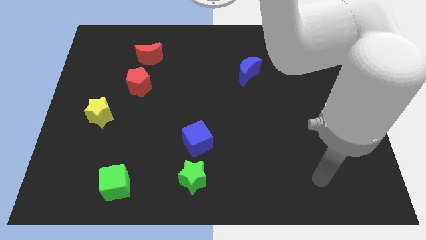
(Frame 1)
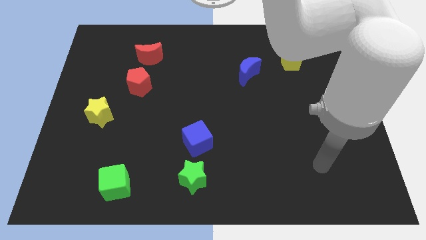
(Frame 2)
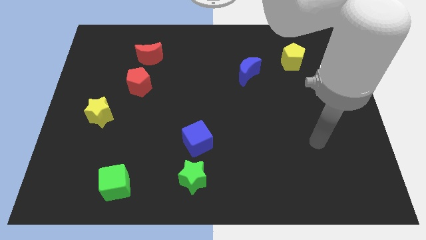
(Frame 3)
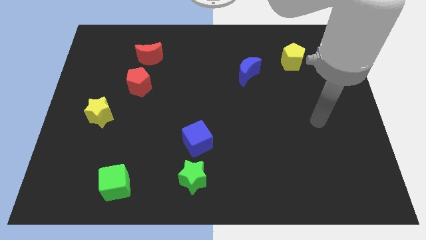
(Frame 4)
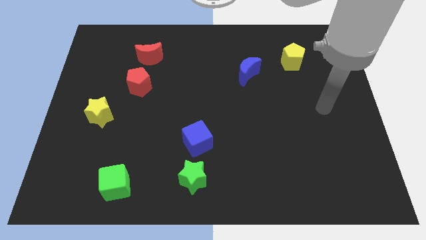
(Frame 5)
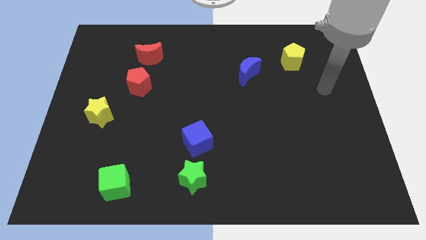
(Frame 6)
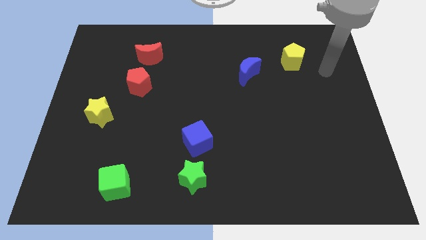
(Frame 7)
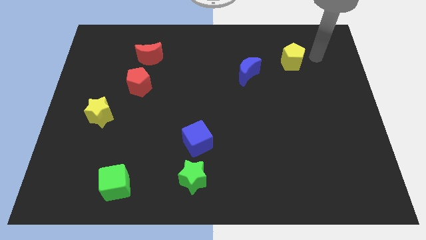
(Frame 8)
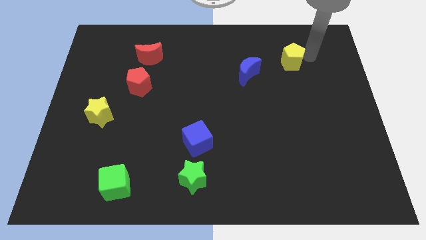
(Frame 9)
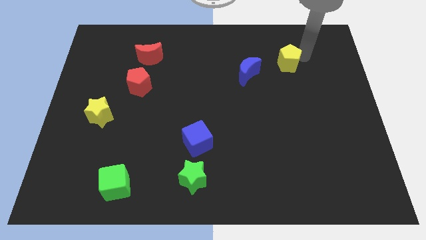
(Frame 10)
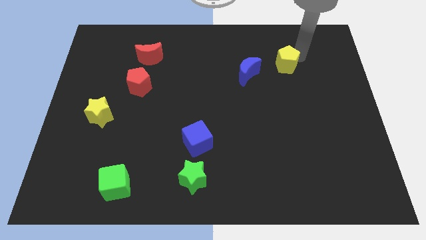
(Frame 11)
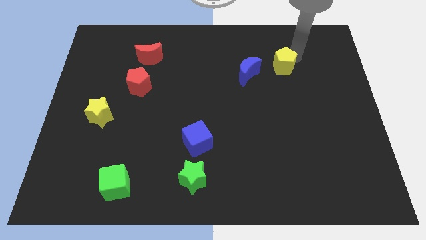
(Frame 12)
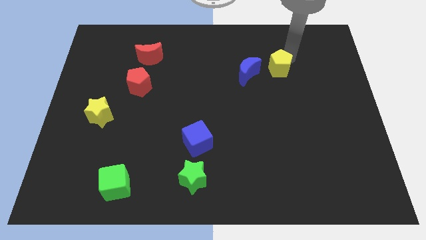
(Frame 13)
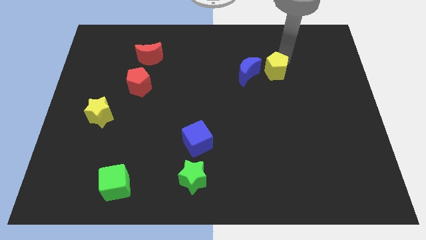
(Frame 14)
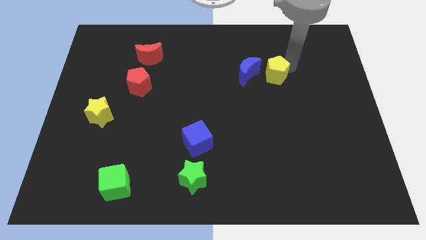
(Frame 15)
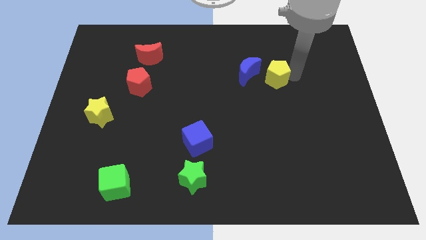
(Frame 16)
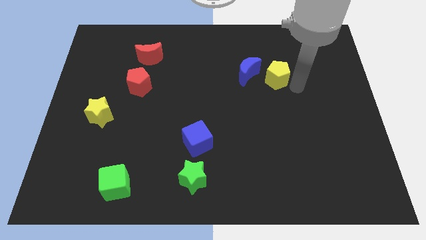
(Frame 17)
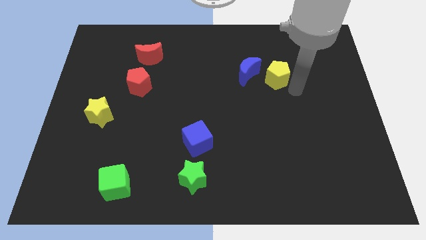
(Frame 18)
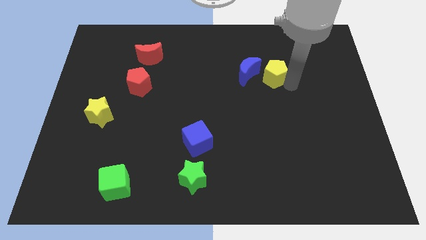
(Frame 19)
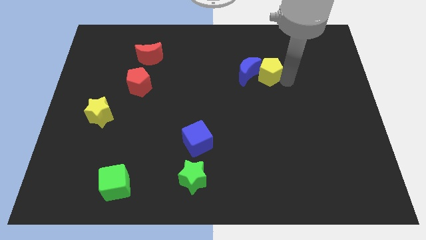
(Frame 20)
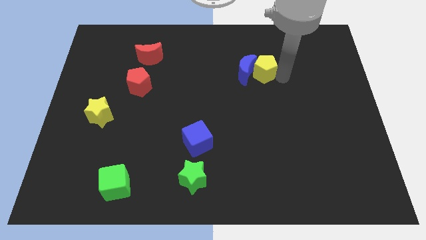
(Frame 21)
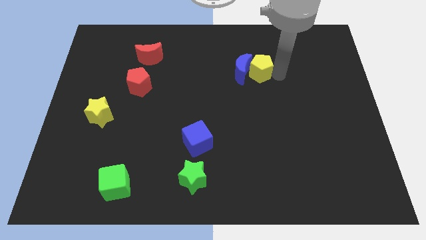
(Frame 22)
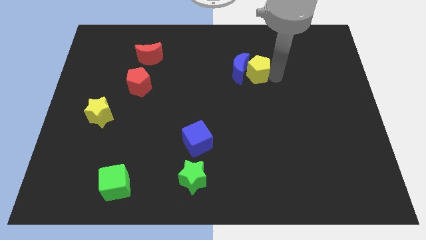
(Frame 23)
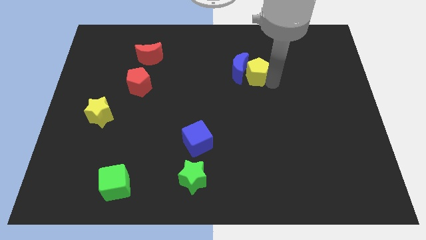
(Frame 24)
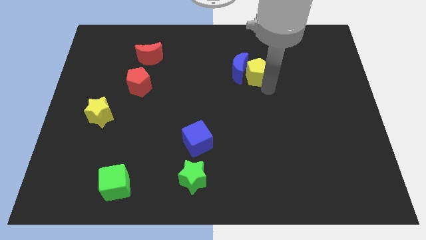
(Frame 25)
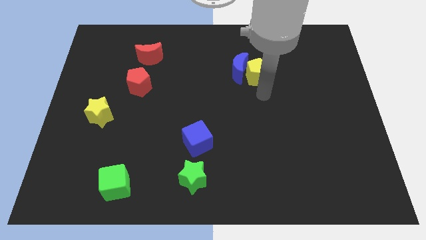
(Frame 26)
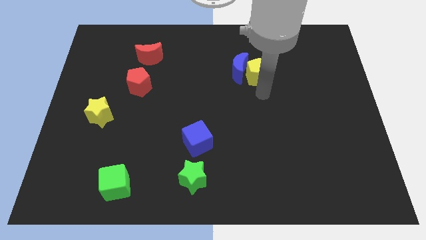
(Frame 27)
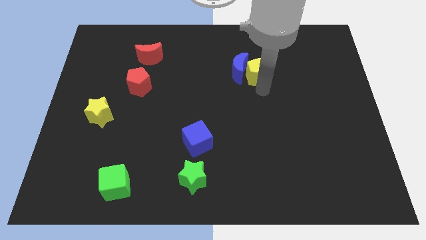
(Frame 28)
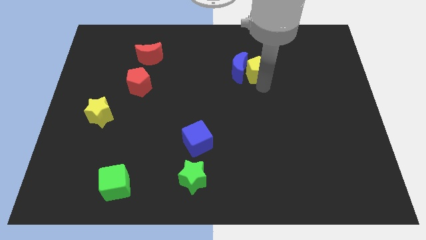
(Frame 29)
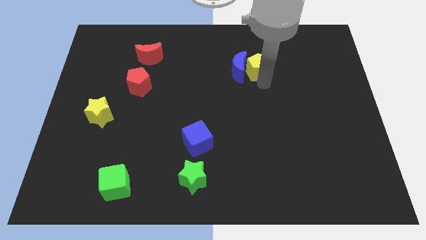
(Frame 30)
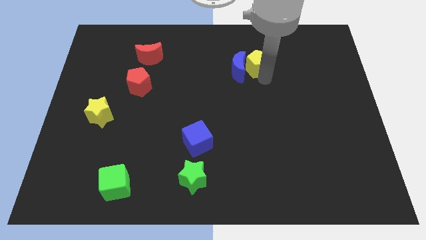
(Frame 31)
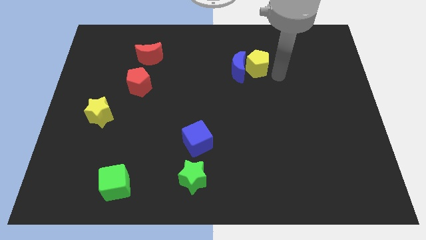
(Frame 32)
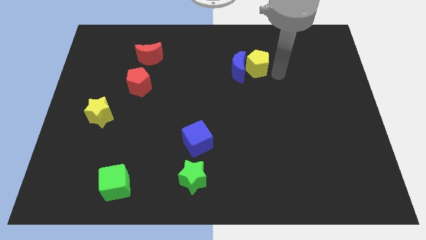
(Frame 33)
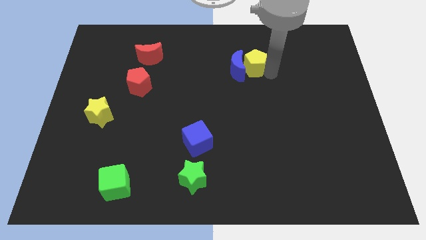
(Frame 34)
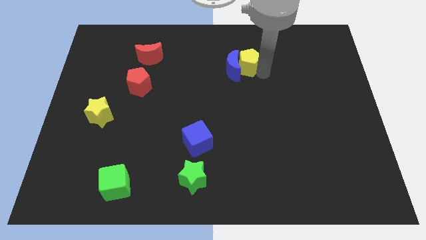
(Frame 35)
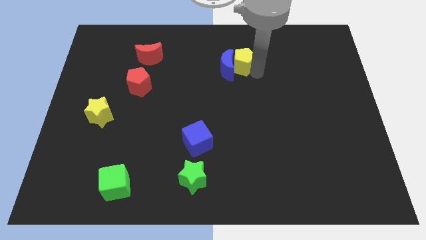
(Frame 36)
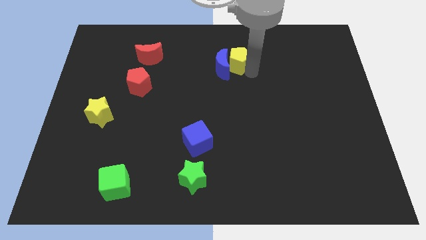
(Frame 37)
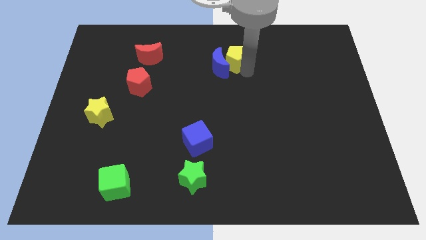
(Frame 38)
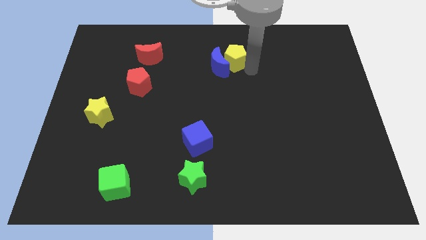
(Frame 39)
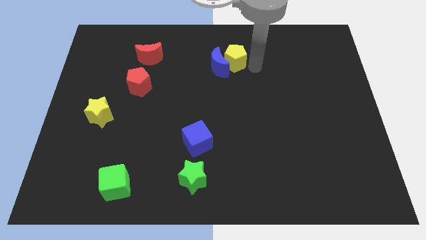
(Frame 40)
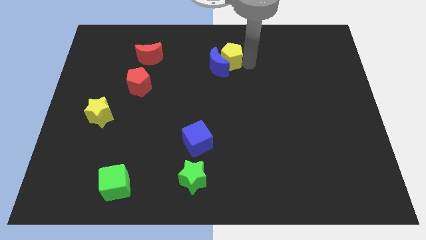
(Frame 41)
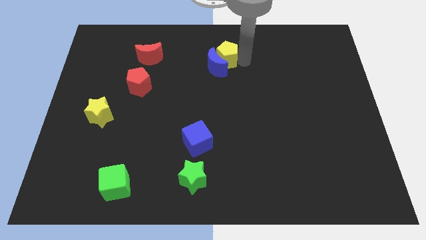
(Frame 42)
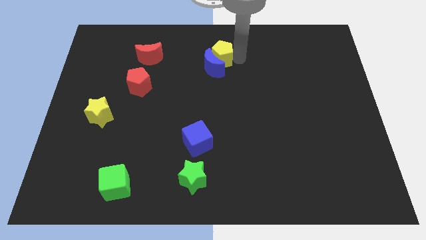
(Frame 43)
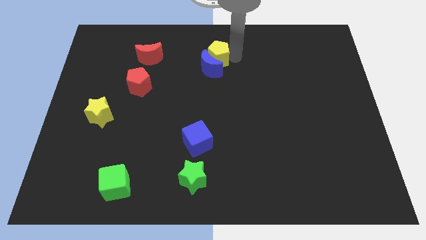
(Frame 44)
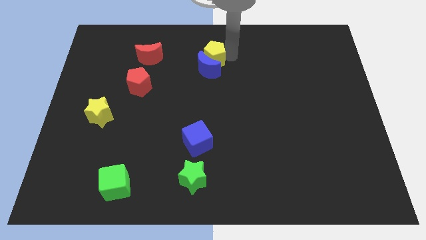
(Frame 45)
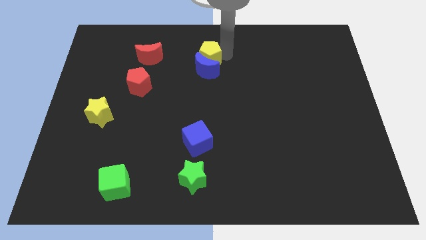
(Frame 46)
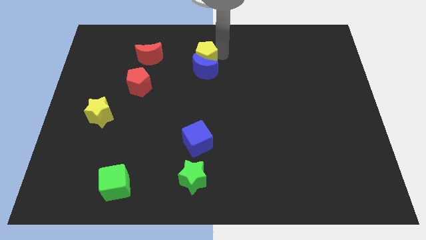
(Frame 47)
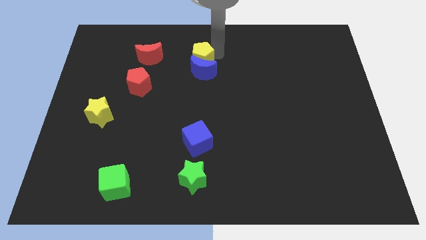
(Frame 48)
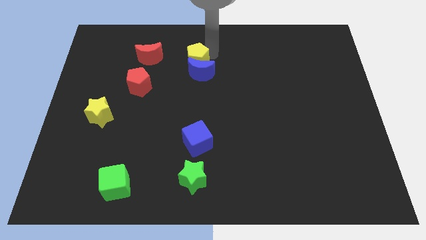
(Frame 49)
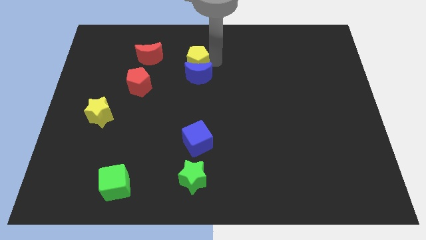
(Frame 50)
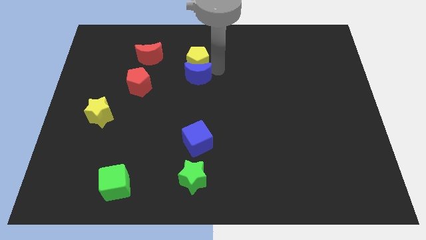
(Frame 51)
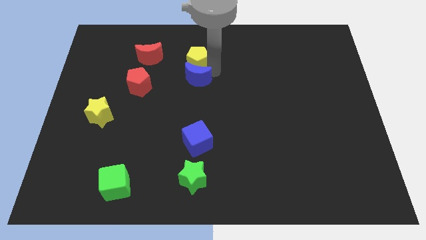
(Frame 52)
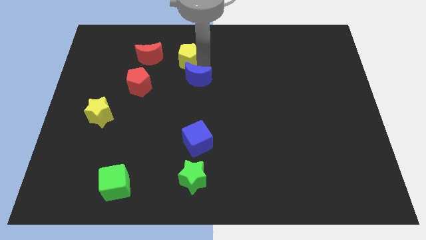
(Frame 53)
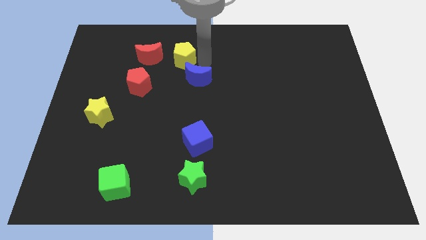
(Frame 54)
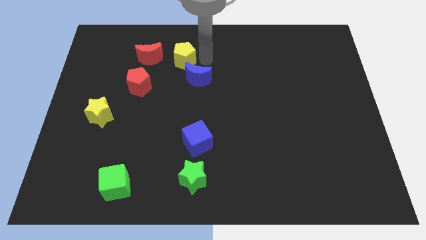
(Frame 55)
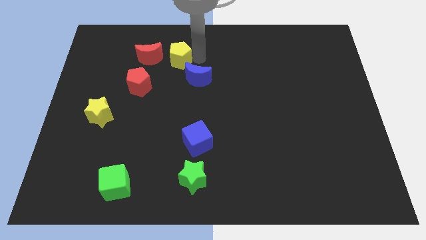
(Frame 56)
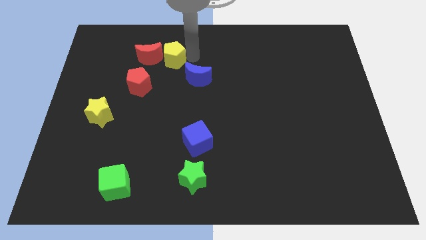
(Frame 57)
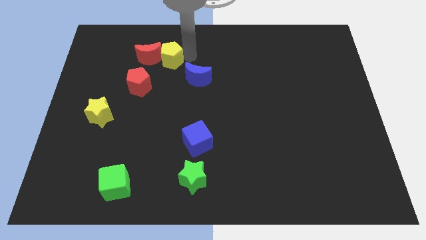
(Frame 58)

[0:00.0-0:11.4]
move the yellow pentagon towards the red moon

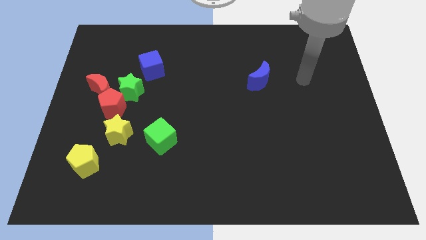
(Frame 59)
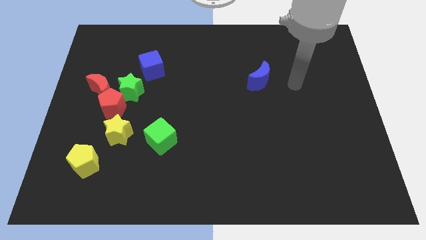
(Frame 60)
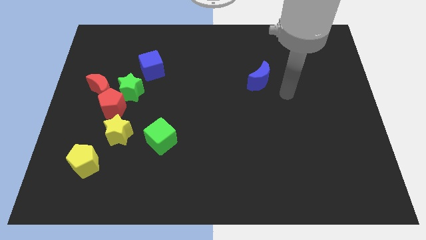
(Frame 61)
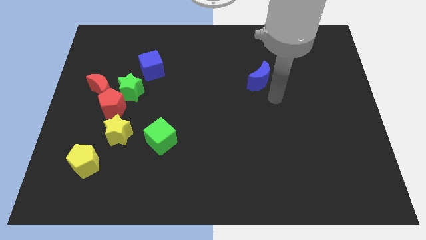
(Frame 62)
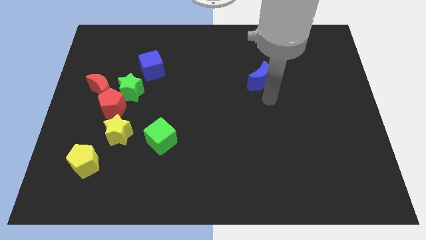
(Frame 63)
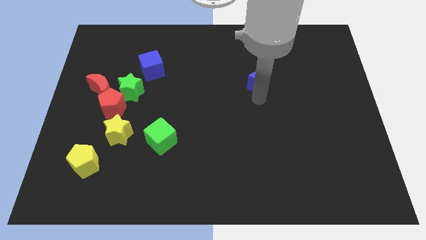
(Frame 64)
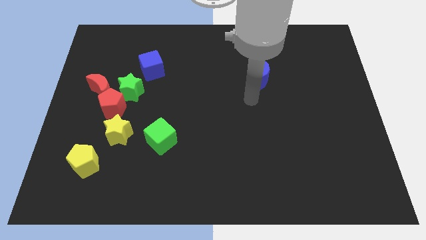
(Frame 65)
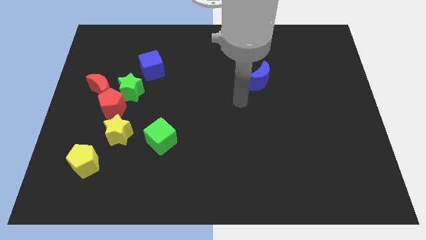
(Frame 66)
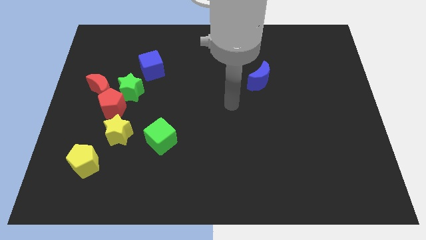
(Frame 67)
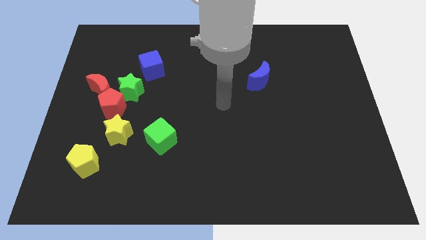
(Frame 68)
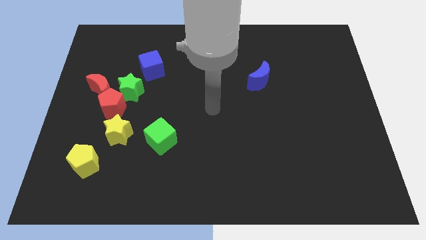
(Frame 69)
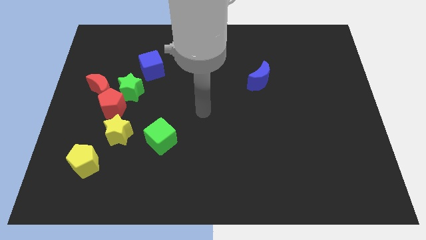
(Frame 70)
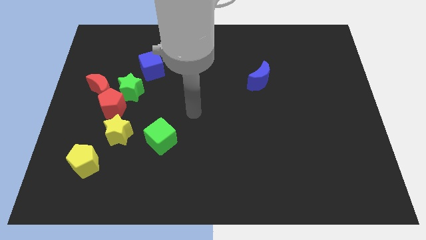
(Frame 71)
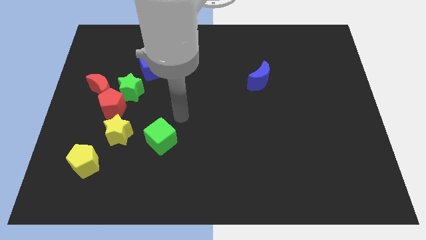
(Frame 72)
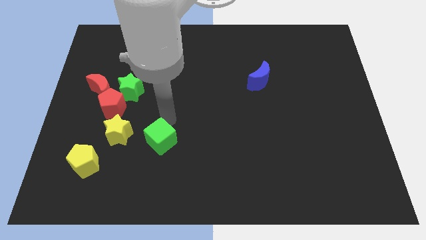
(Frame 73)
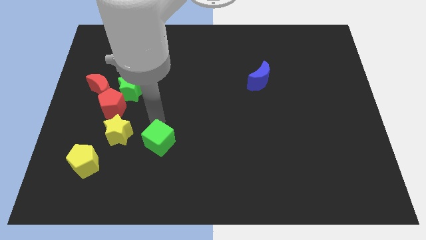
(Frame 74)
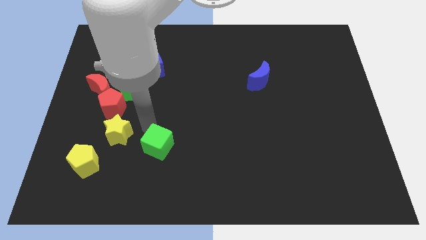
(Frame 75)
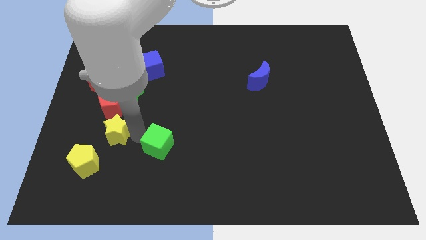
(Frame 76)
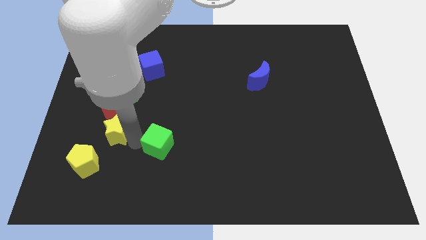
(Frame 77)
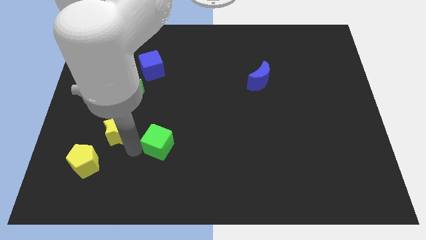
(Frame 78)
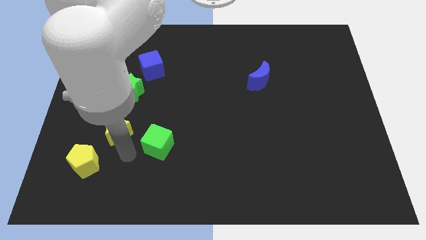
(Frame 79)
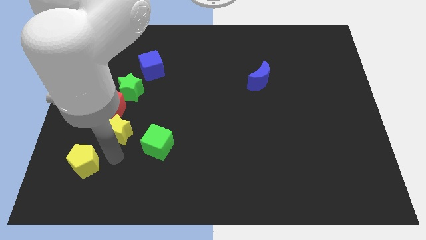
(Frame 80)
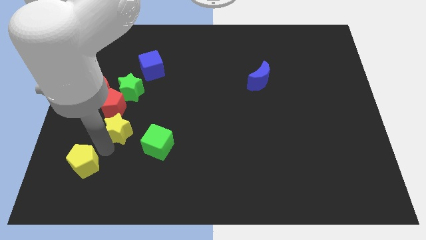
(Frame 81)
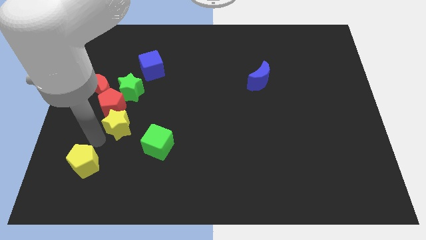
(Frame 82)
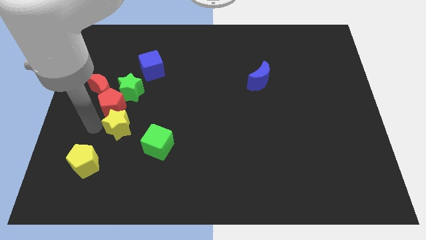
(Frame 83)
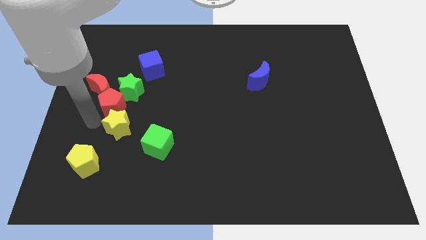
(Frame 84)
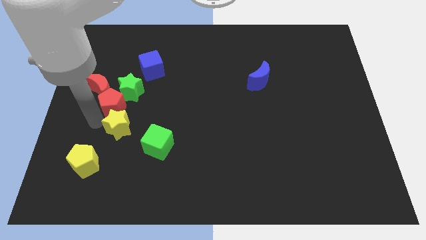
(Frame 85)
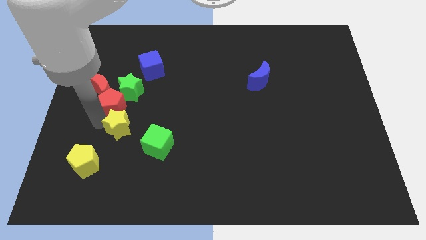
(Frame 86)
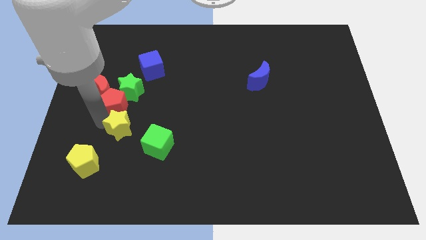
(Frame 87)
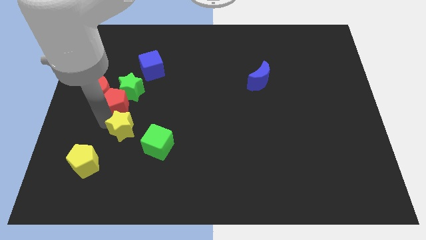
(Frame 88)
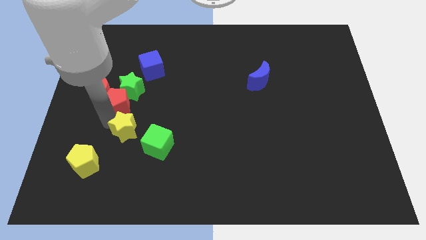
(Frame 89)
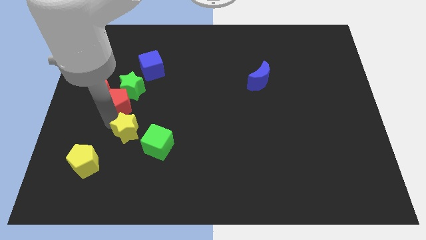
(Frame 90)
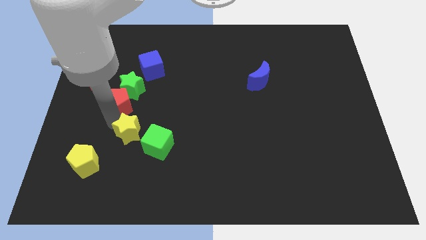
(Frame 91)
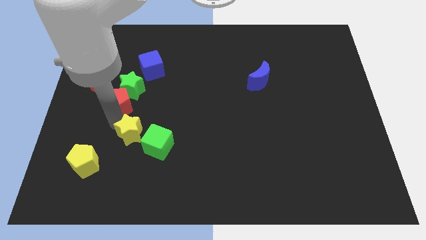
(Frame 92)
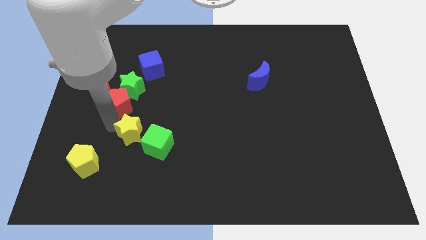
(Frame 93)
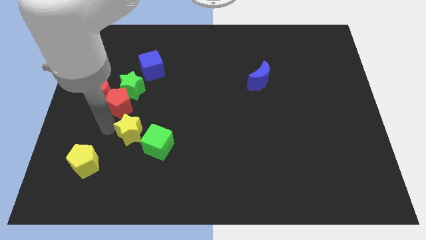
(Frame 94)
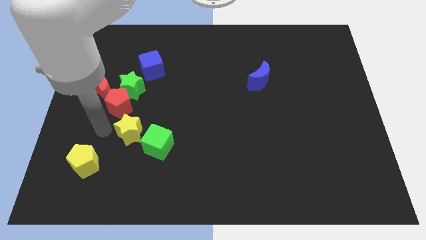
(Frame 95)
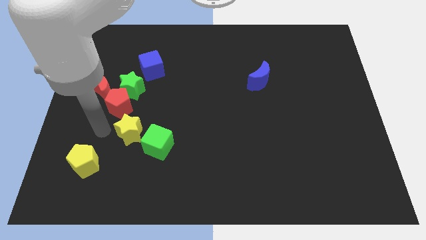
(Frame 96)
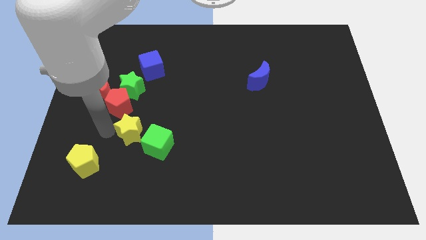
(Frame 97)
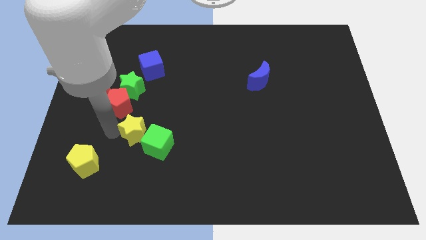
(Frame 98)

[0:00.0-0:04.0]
slide the yellow star next to the green cube
